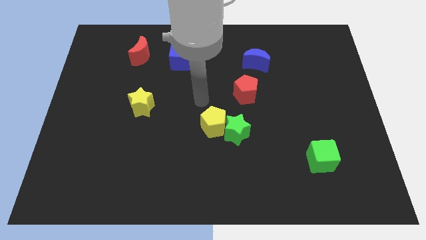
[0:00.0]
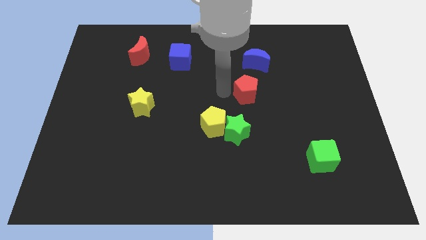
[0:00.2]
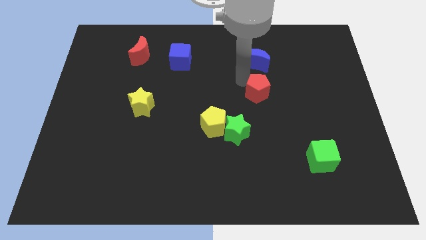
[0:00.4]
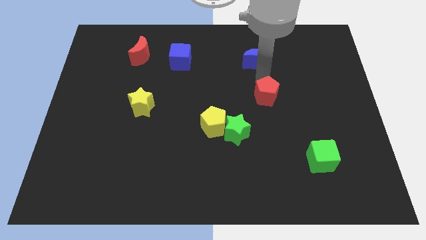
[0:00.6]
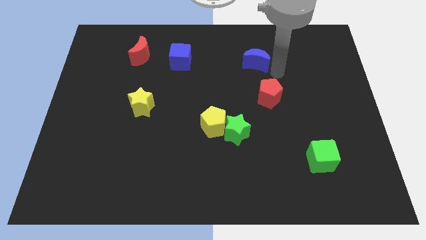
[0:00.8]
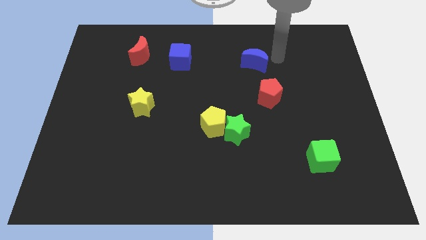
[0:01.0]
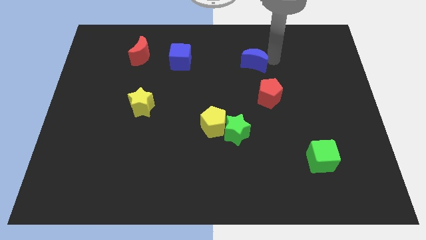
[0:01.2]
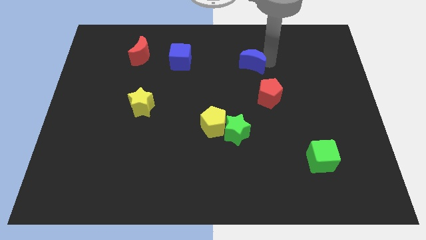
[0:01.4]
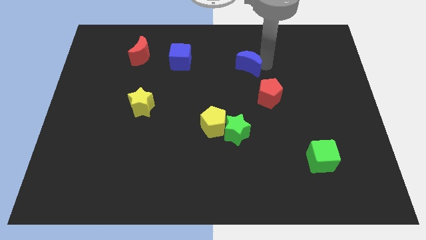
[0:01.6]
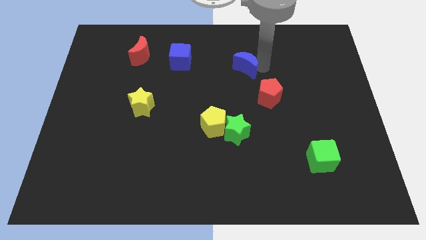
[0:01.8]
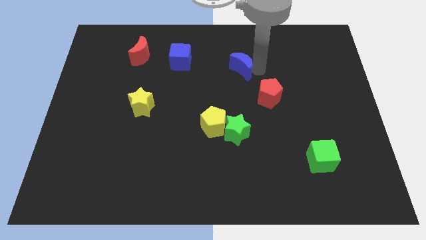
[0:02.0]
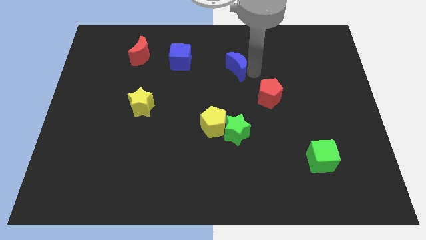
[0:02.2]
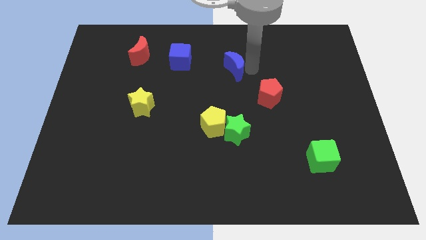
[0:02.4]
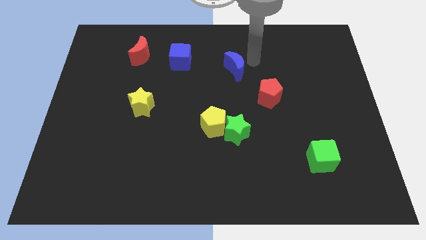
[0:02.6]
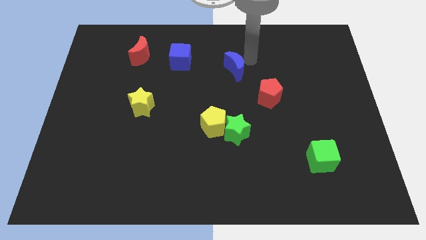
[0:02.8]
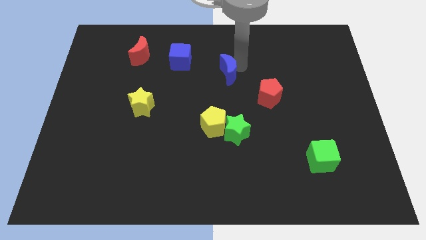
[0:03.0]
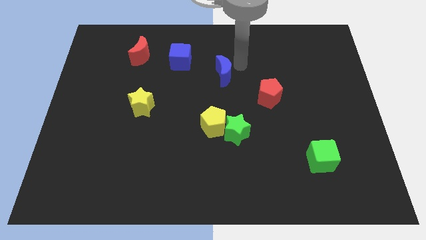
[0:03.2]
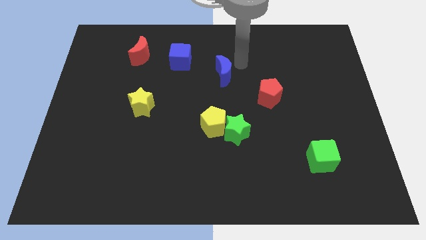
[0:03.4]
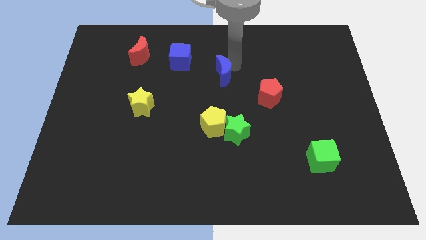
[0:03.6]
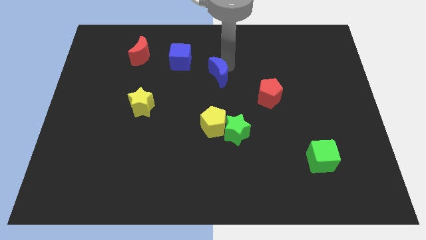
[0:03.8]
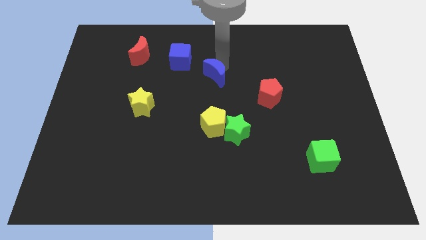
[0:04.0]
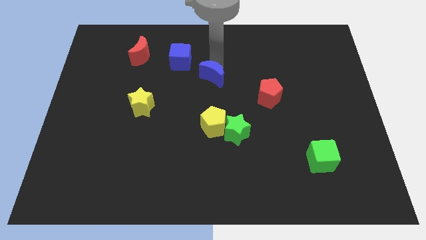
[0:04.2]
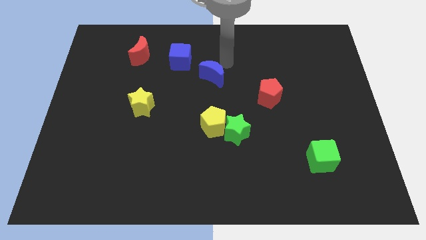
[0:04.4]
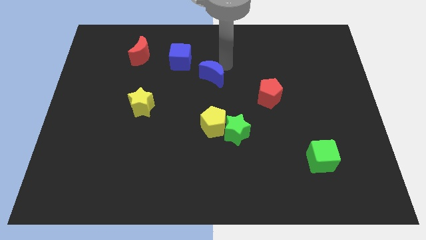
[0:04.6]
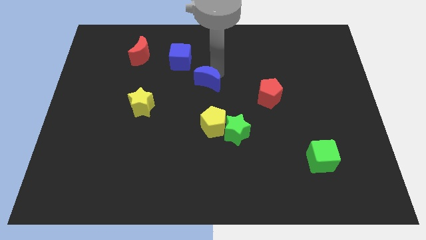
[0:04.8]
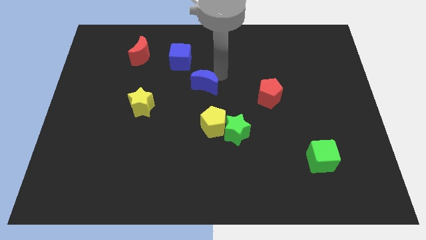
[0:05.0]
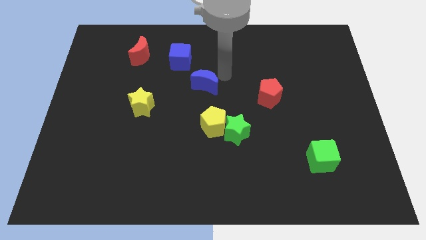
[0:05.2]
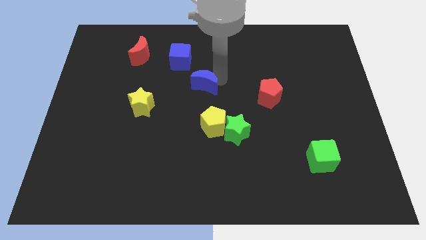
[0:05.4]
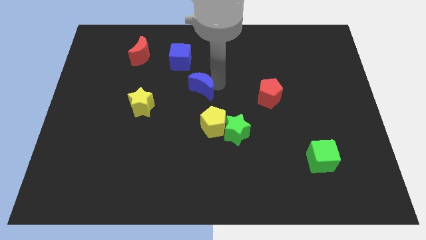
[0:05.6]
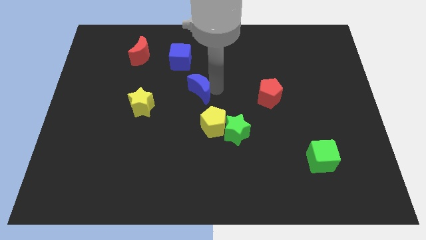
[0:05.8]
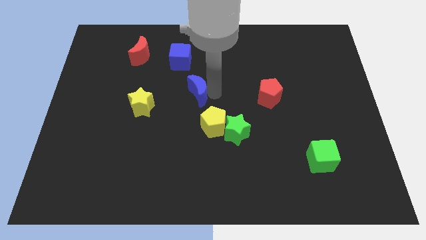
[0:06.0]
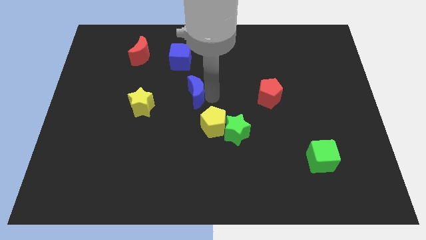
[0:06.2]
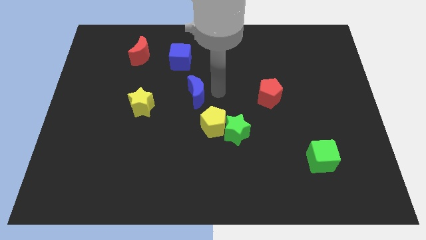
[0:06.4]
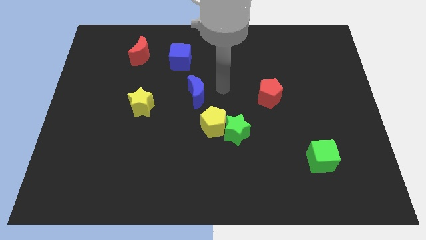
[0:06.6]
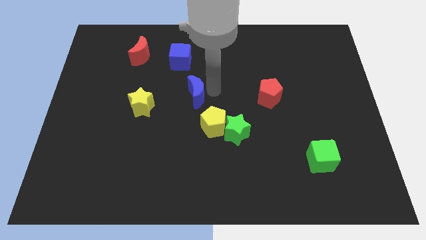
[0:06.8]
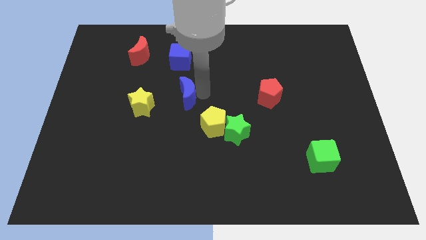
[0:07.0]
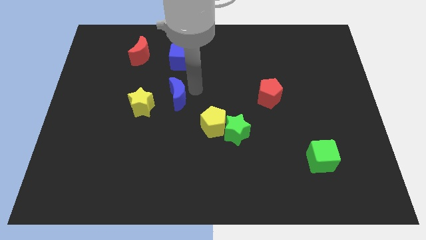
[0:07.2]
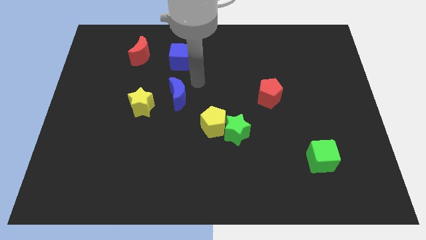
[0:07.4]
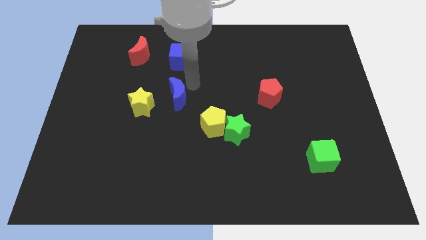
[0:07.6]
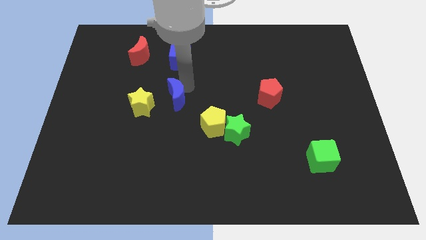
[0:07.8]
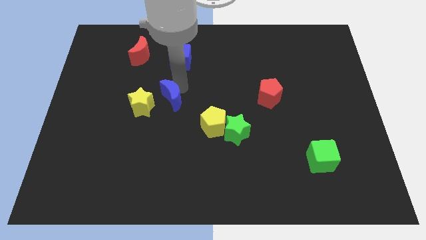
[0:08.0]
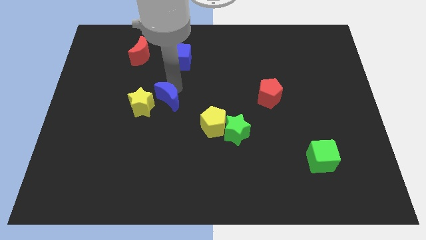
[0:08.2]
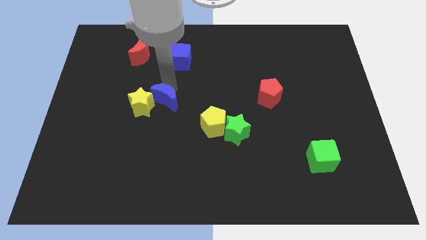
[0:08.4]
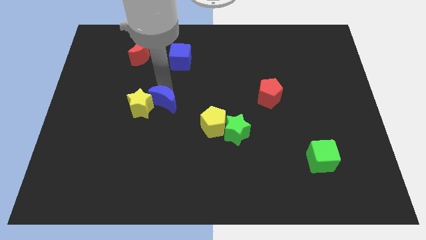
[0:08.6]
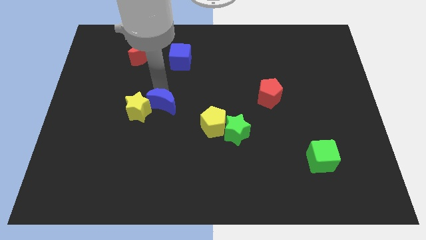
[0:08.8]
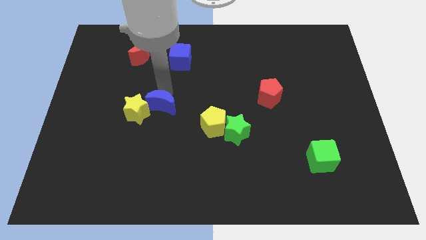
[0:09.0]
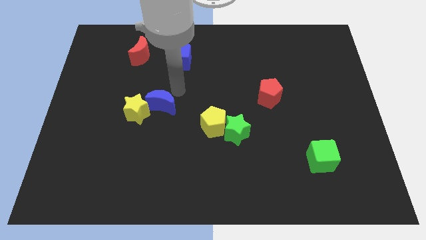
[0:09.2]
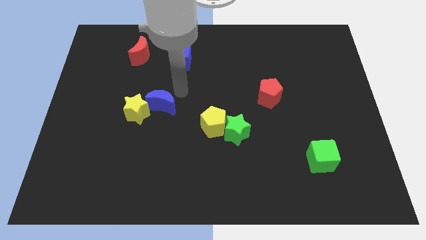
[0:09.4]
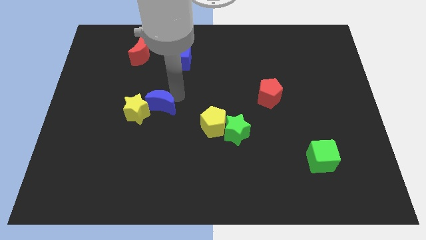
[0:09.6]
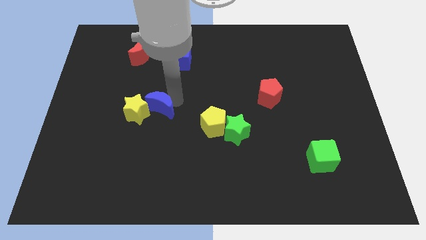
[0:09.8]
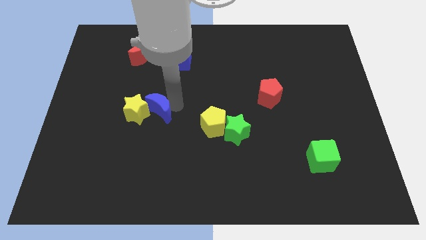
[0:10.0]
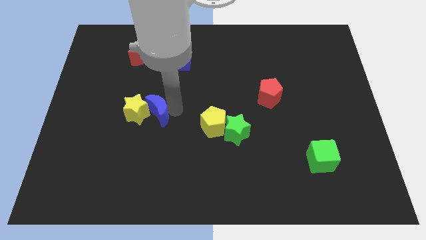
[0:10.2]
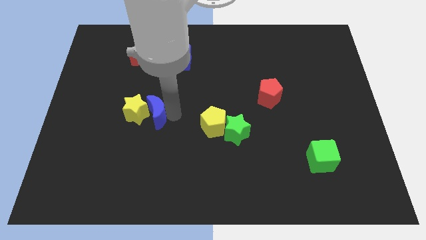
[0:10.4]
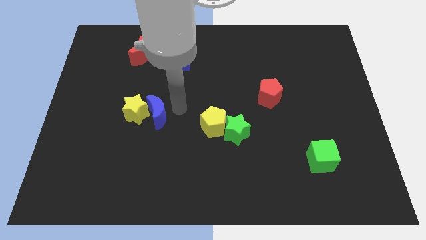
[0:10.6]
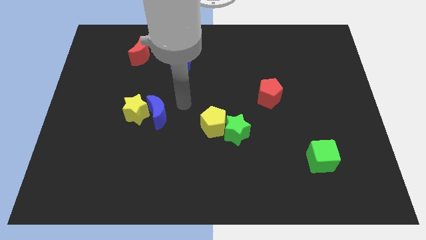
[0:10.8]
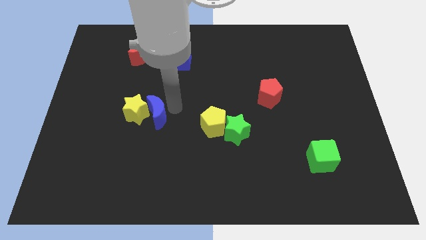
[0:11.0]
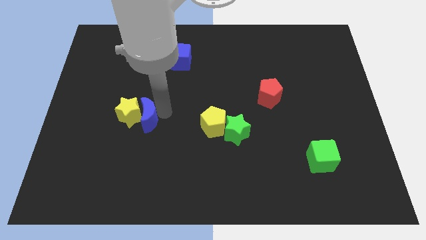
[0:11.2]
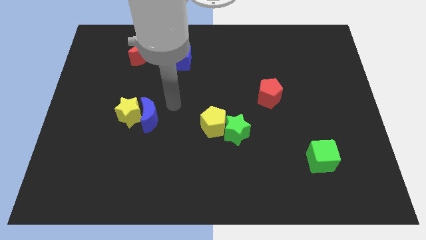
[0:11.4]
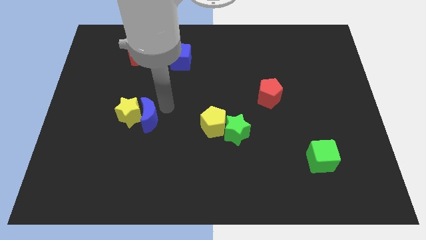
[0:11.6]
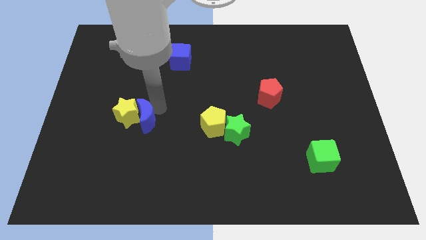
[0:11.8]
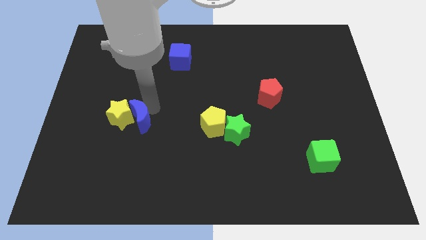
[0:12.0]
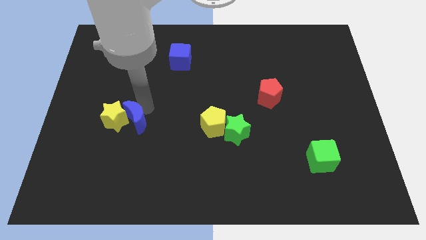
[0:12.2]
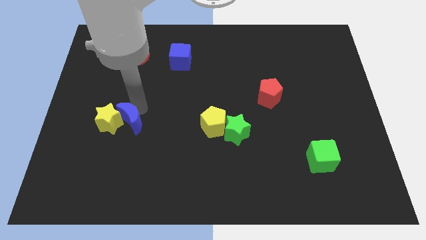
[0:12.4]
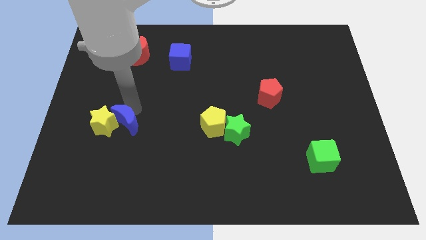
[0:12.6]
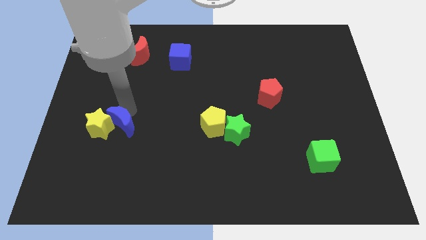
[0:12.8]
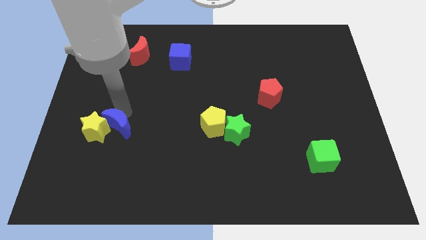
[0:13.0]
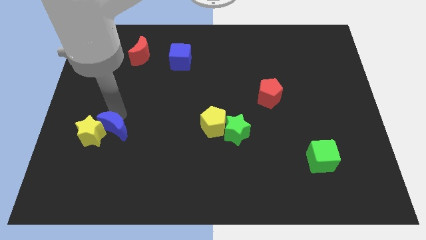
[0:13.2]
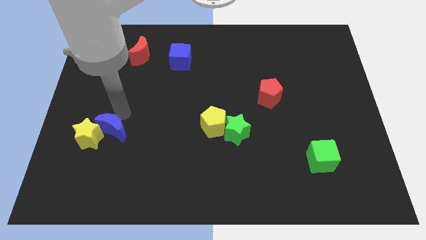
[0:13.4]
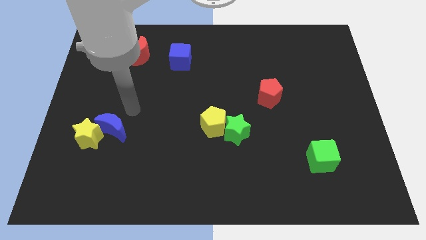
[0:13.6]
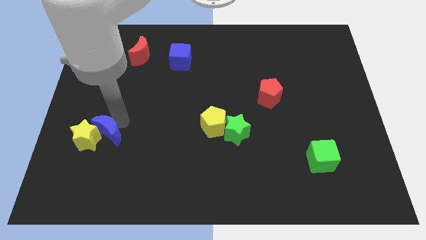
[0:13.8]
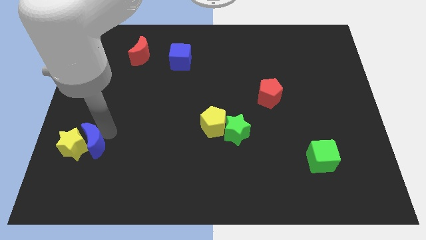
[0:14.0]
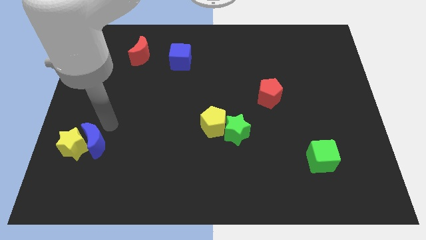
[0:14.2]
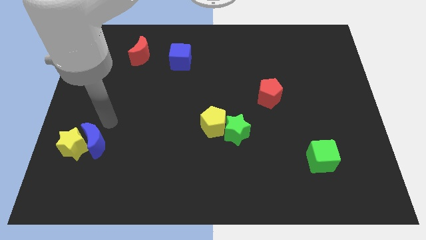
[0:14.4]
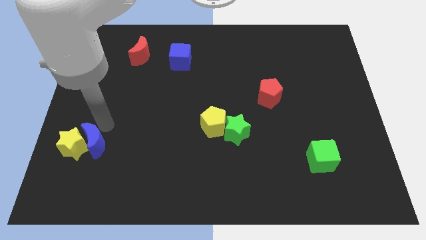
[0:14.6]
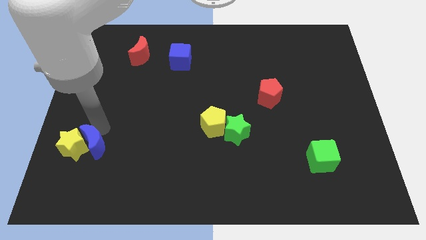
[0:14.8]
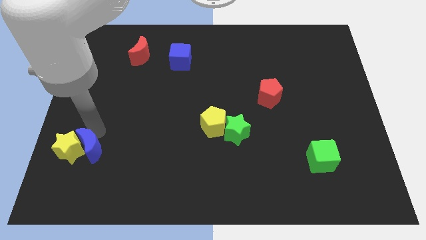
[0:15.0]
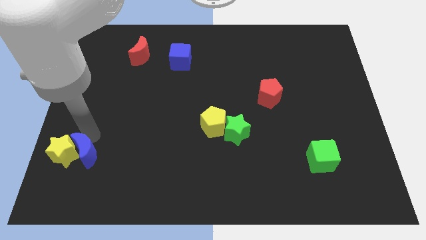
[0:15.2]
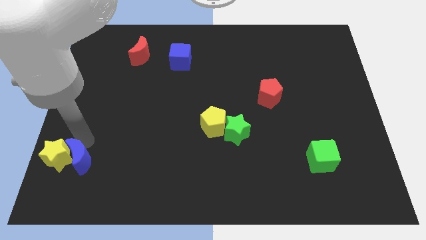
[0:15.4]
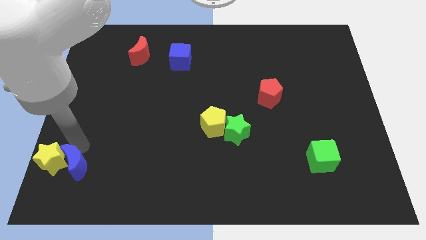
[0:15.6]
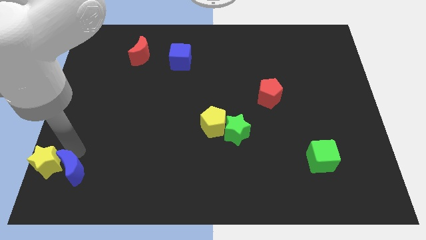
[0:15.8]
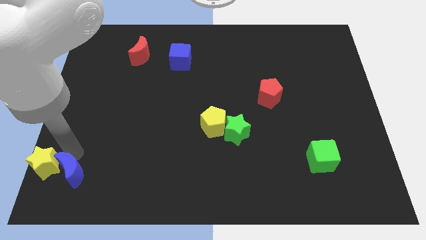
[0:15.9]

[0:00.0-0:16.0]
move the blue moon to the bottom left
